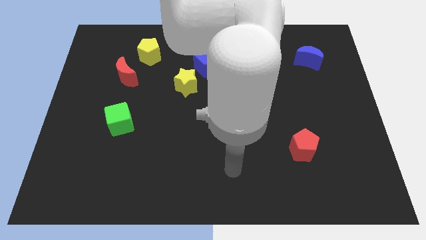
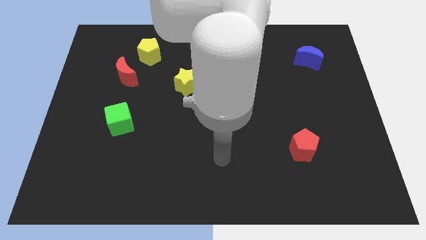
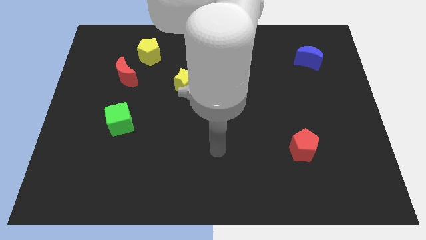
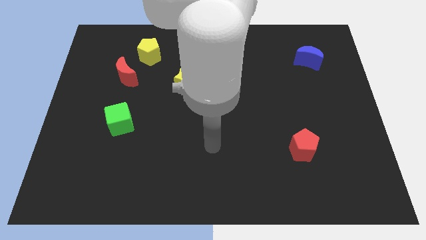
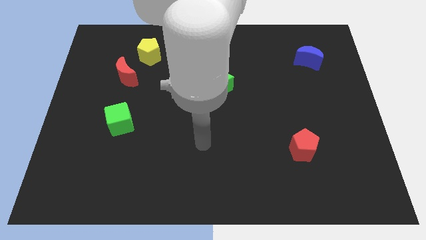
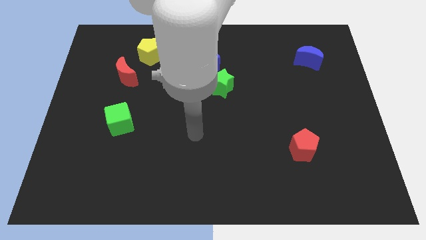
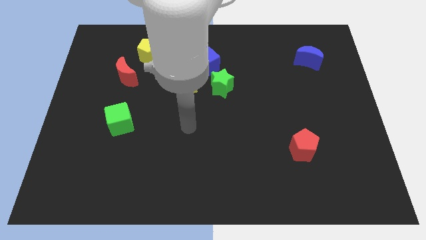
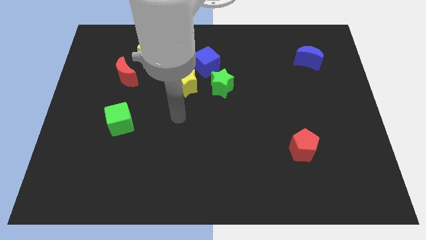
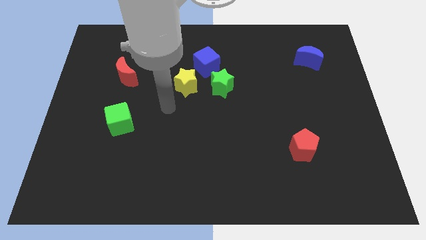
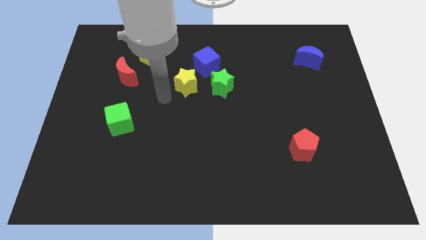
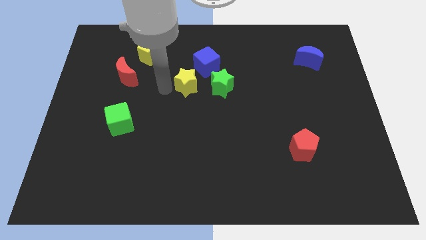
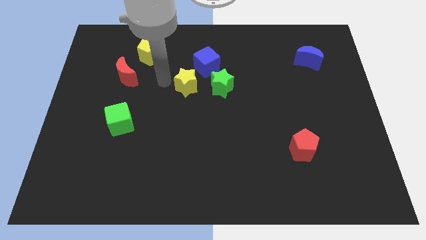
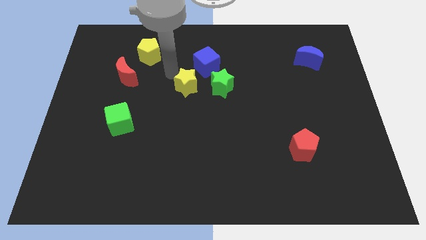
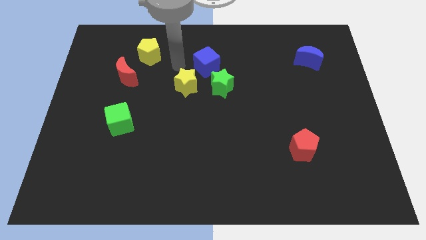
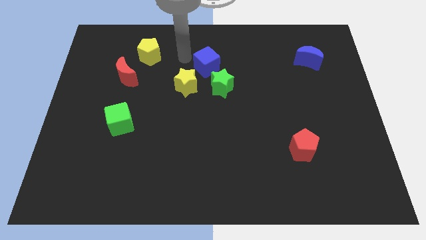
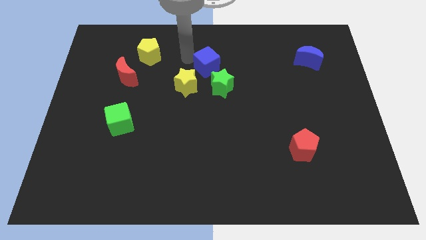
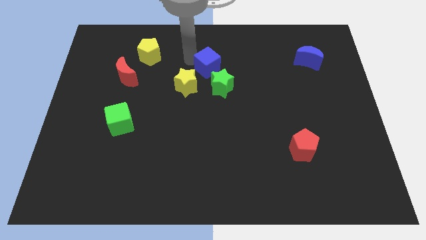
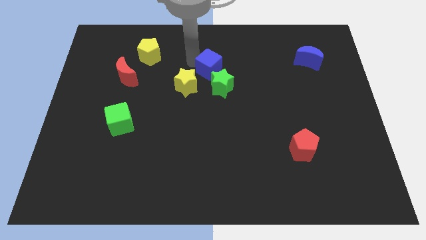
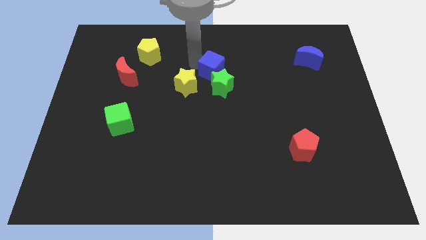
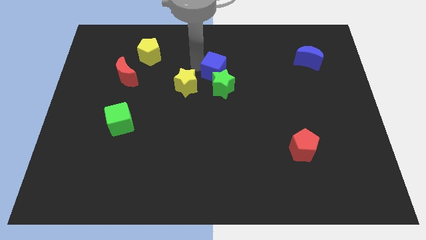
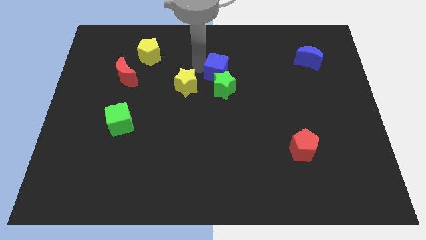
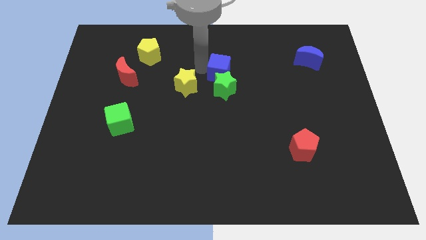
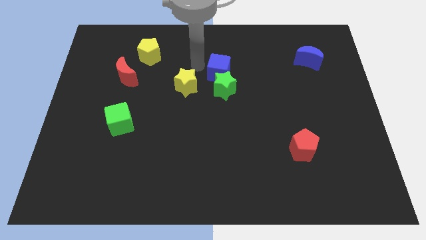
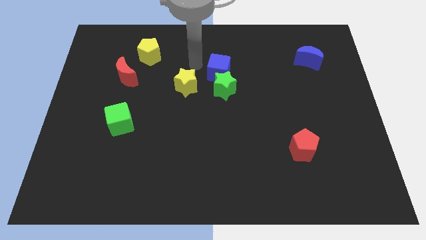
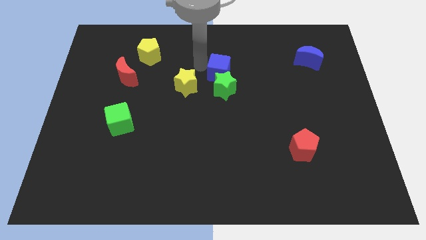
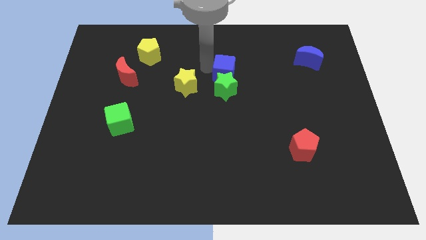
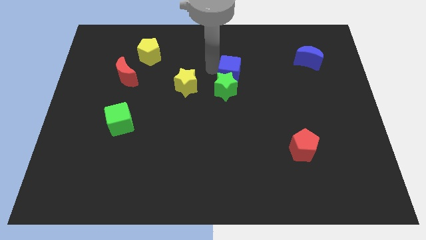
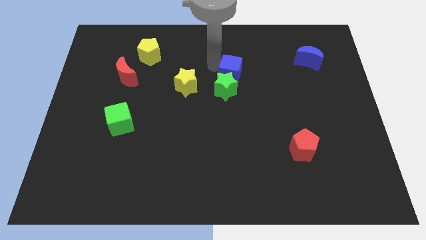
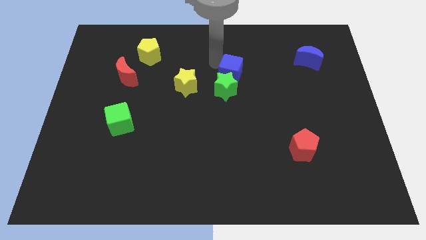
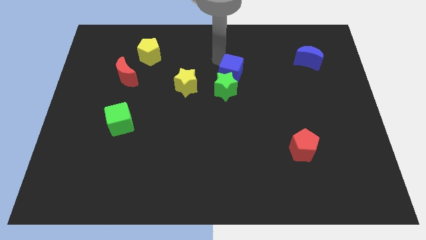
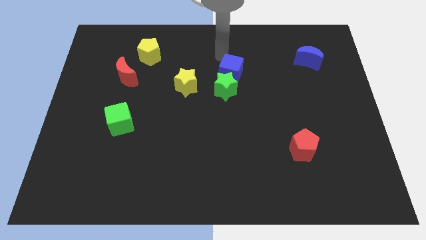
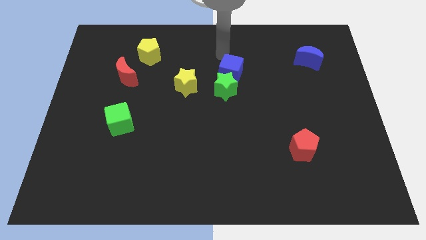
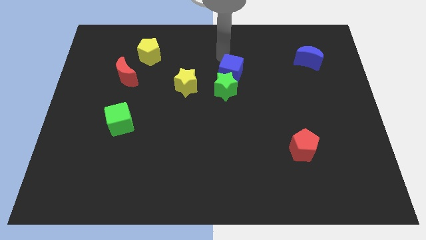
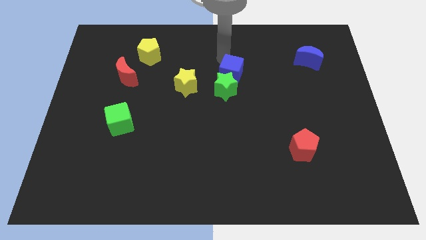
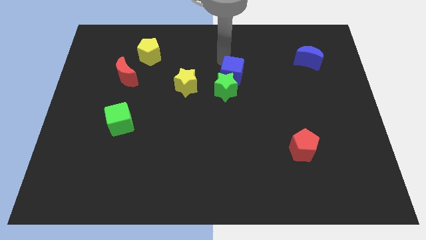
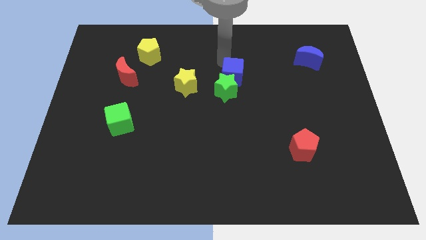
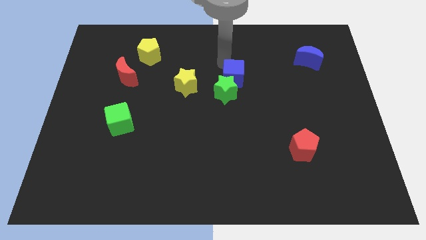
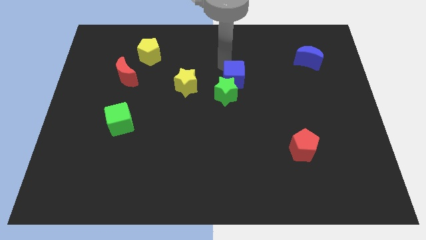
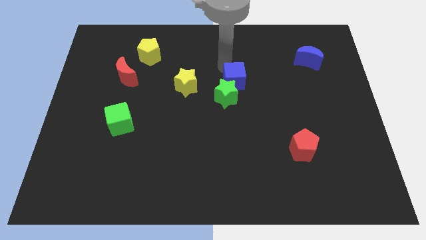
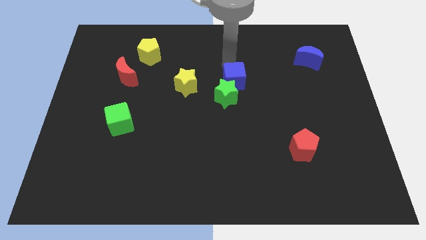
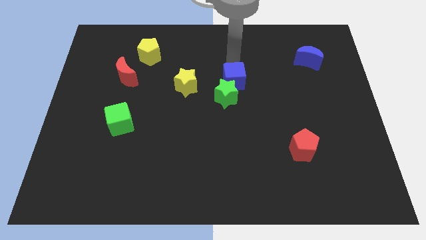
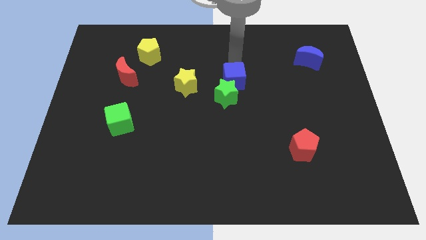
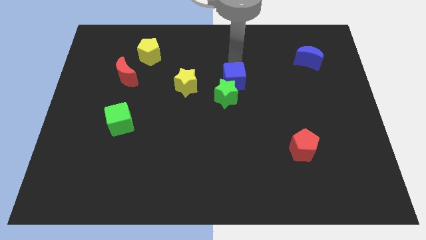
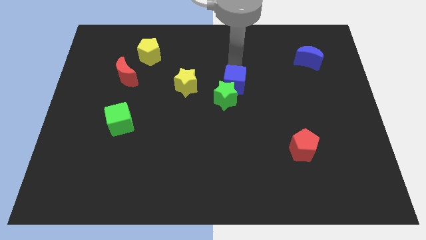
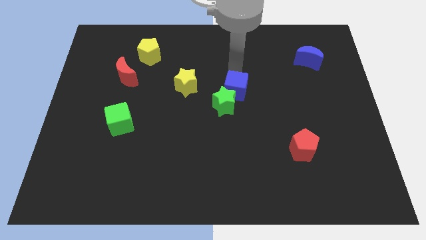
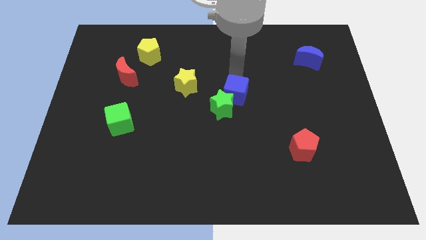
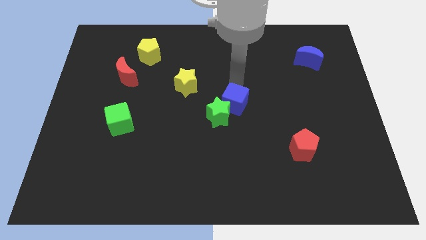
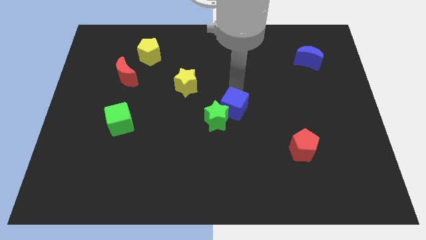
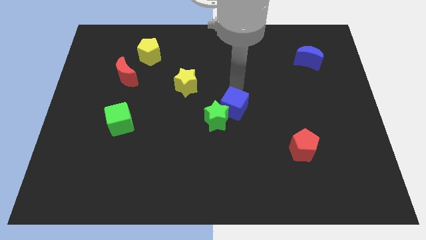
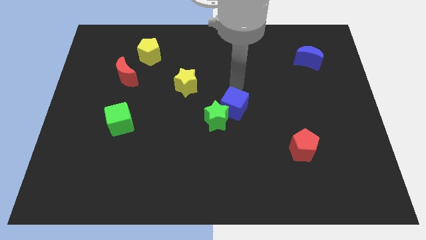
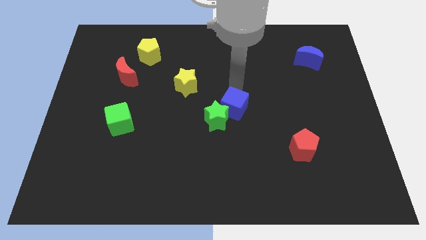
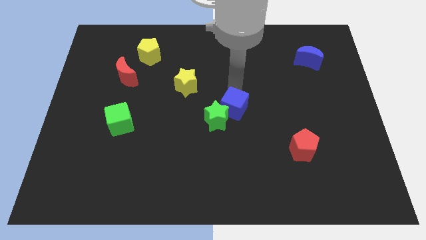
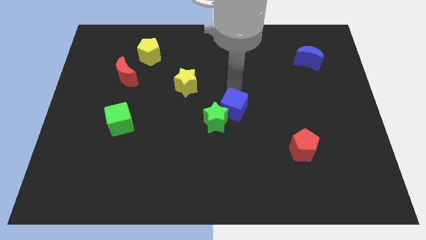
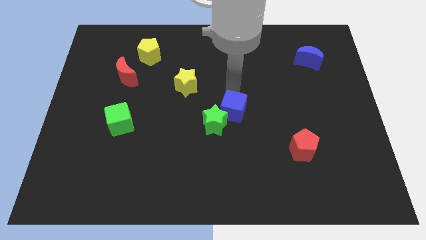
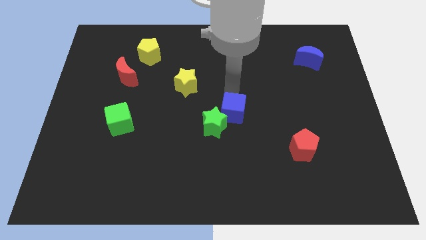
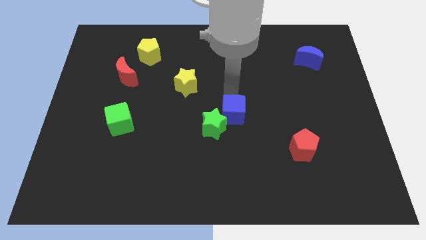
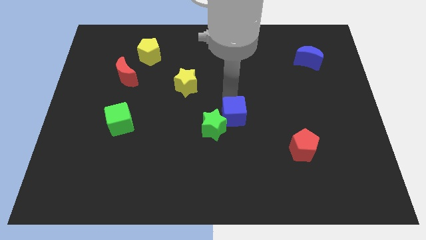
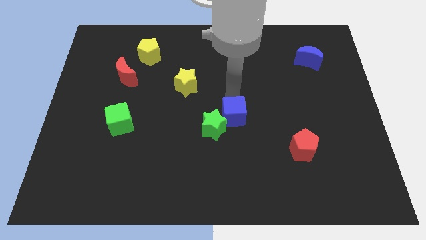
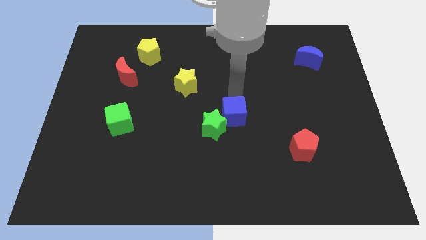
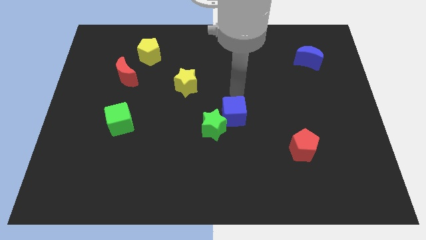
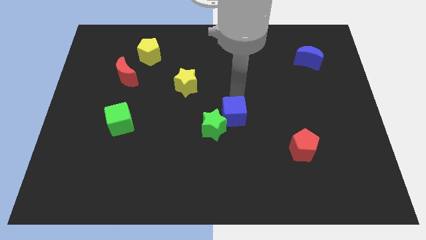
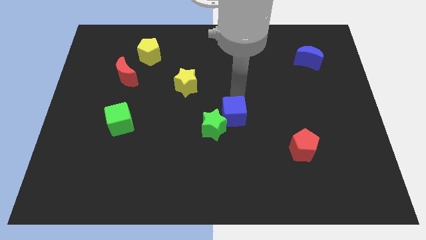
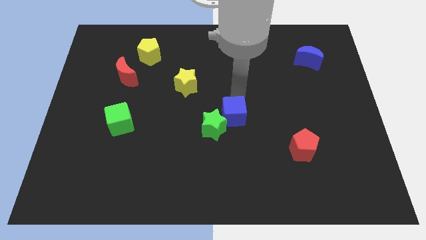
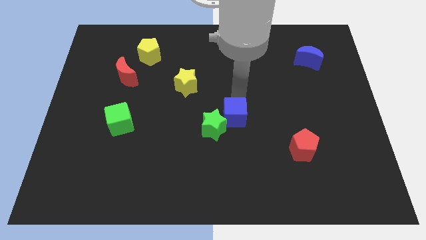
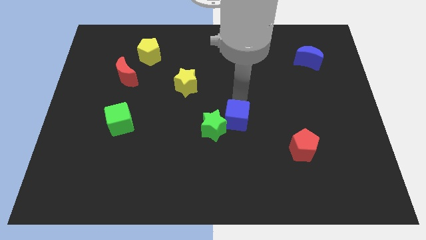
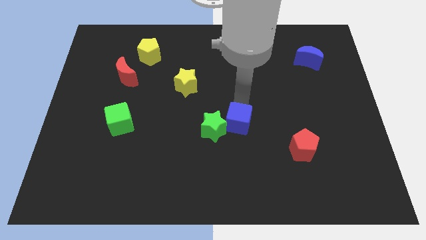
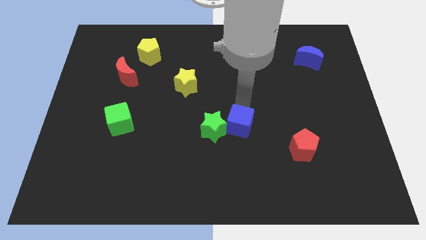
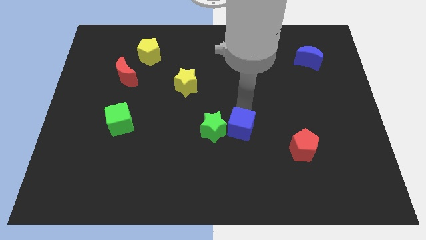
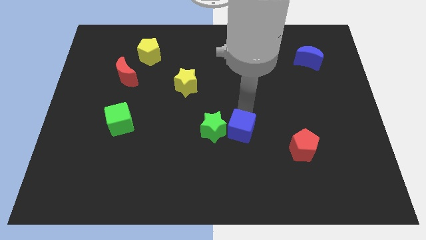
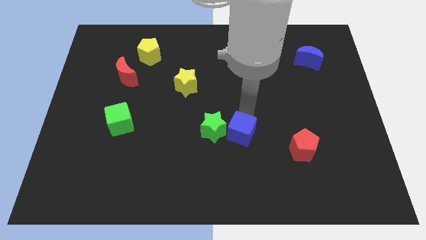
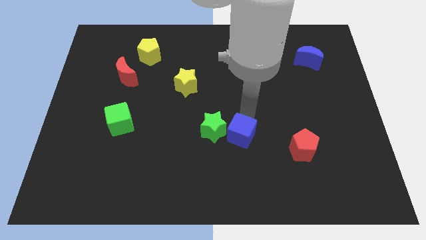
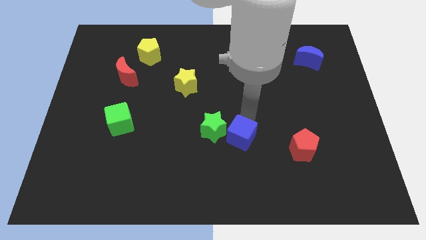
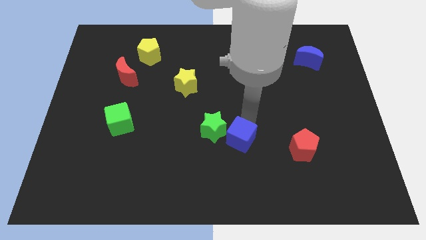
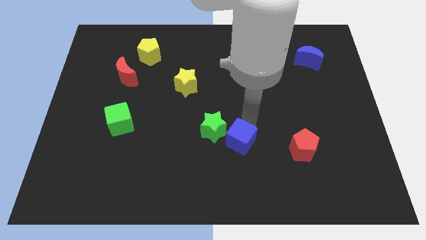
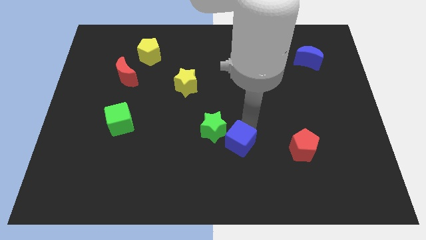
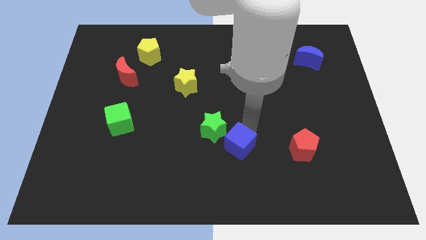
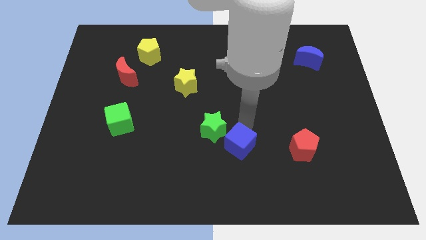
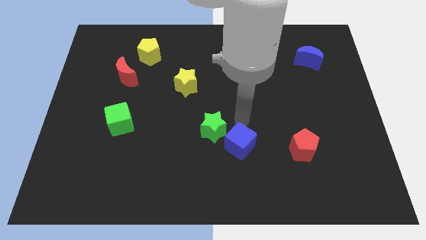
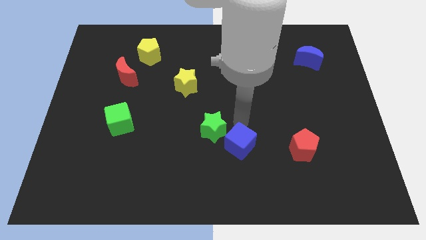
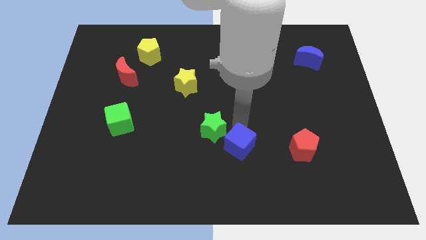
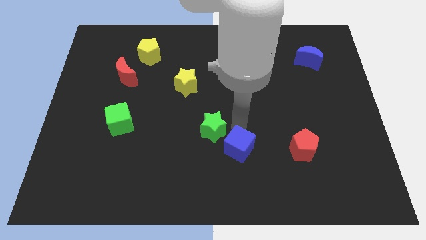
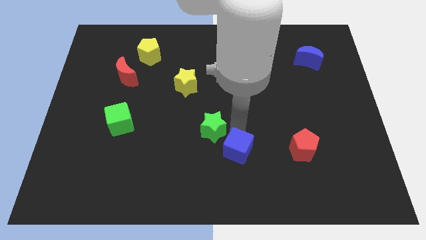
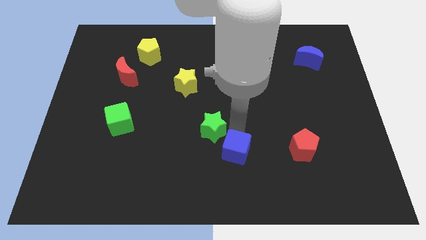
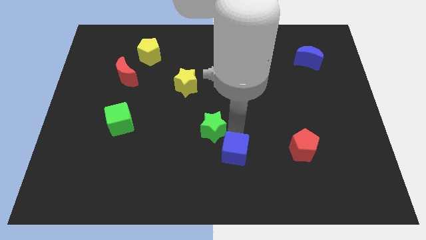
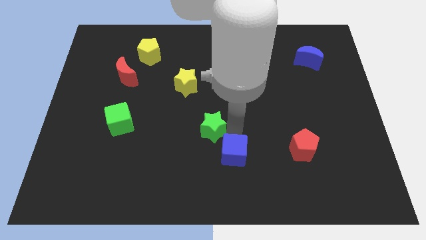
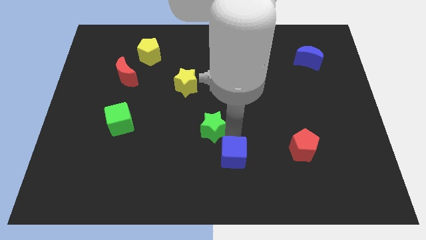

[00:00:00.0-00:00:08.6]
put the blue cube to the bottom side
